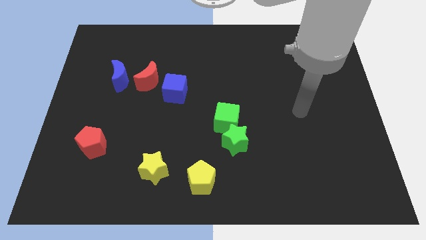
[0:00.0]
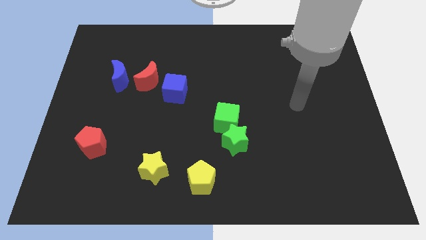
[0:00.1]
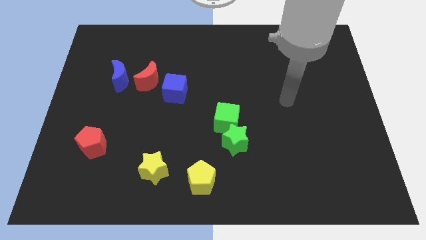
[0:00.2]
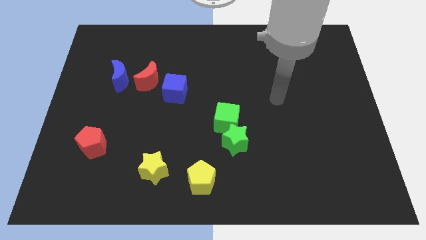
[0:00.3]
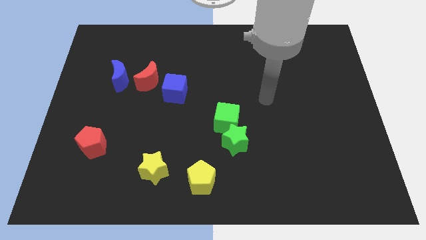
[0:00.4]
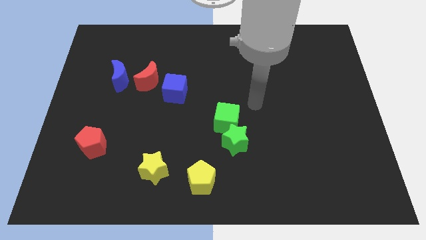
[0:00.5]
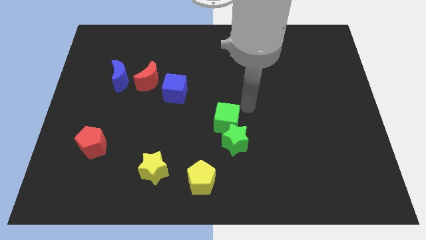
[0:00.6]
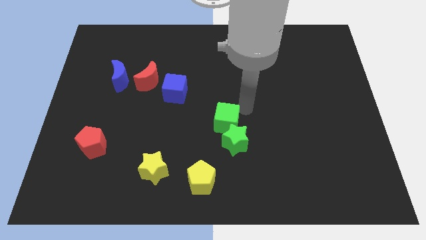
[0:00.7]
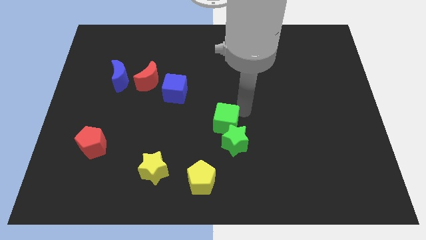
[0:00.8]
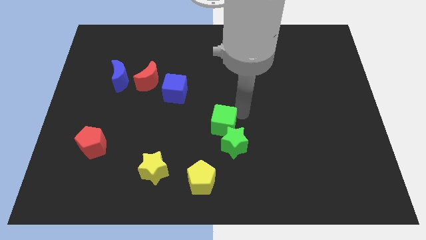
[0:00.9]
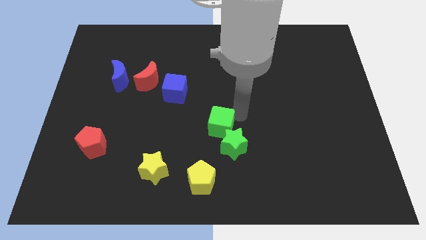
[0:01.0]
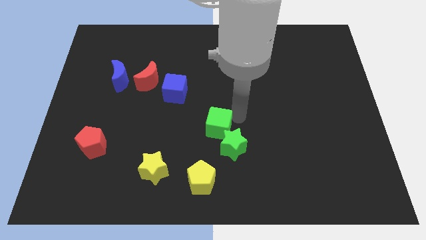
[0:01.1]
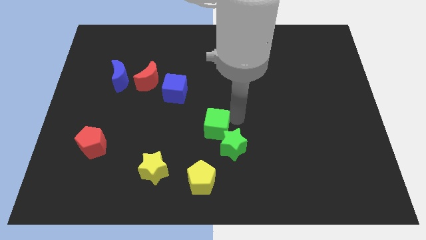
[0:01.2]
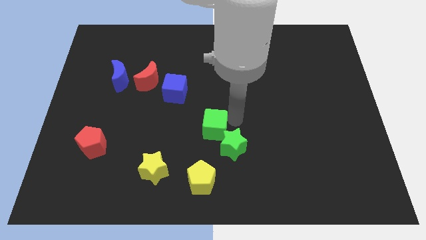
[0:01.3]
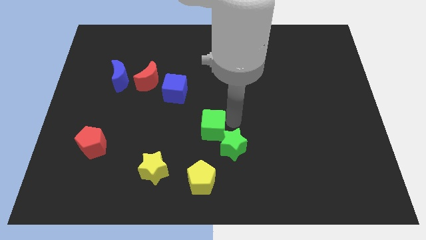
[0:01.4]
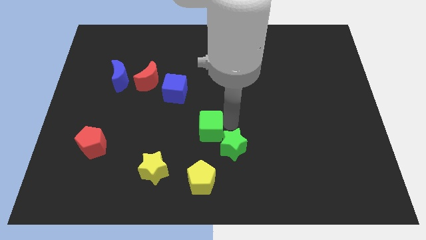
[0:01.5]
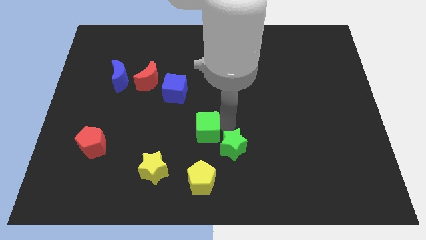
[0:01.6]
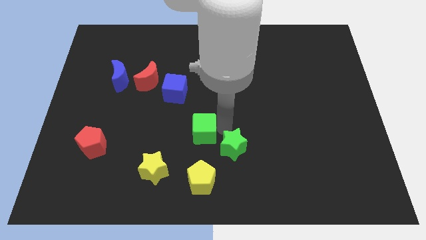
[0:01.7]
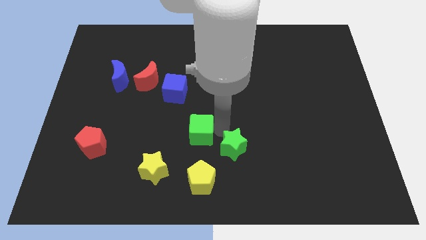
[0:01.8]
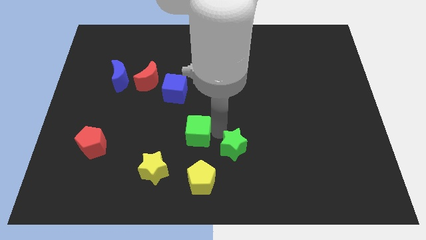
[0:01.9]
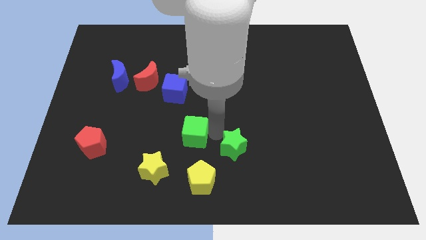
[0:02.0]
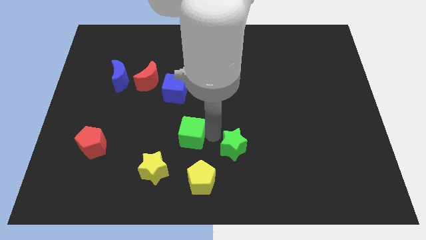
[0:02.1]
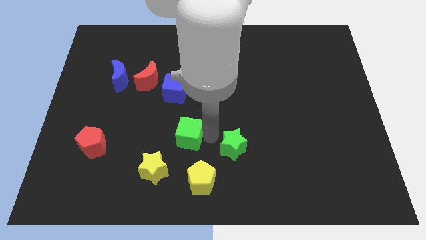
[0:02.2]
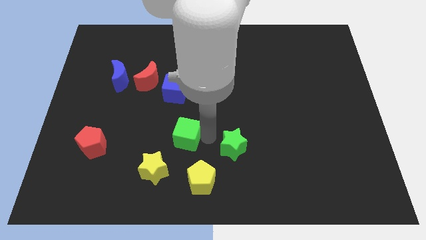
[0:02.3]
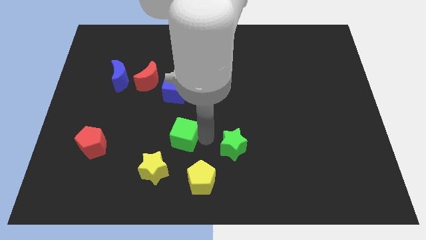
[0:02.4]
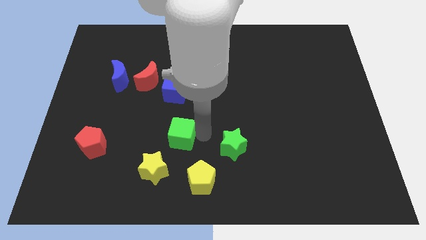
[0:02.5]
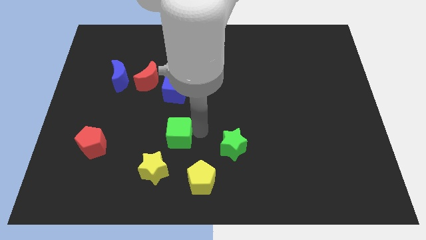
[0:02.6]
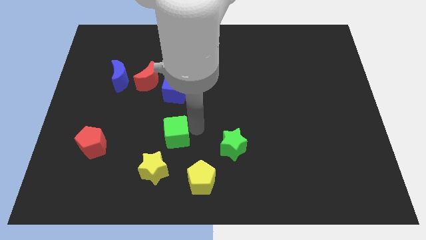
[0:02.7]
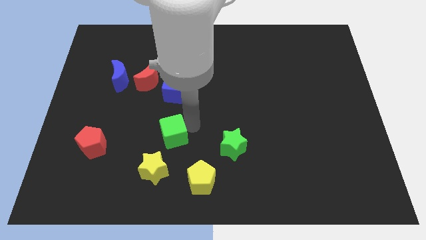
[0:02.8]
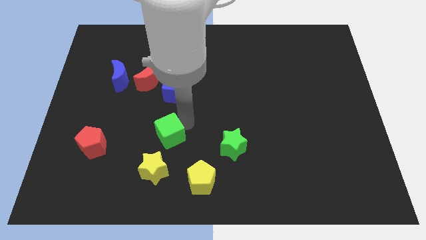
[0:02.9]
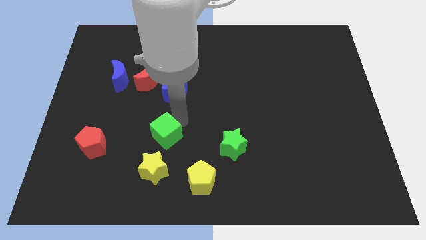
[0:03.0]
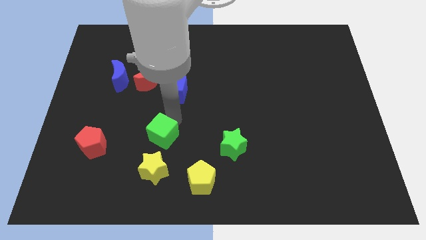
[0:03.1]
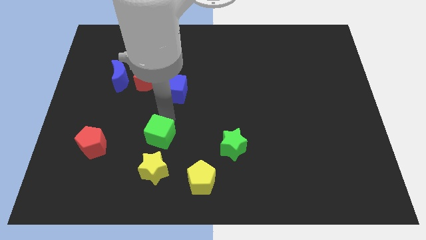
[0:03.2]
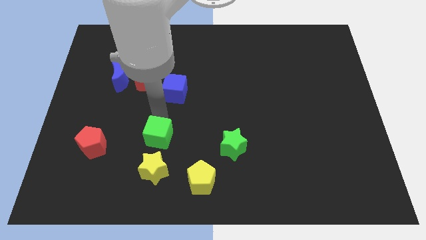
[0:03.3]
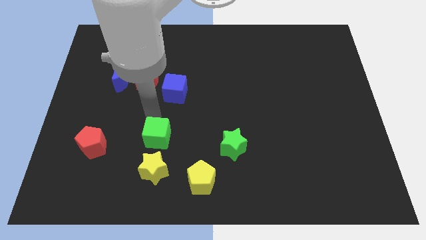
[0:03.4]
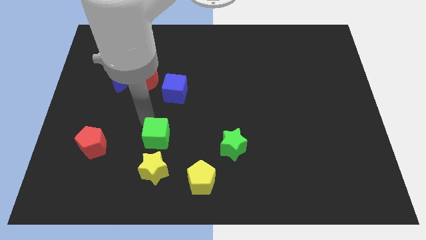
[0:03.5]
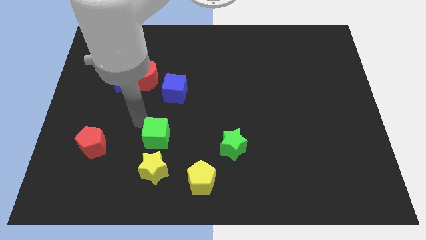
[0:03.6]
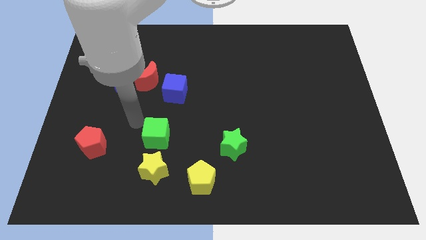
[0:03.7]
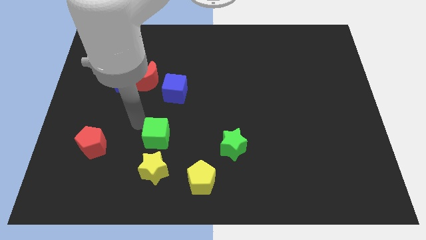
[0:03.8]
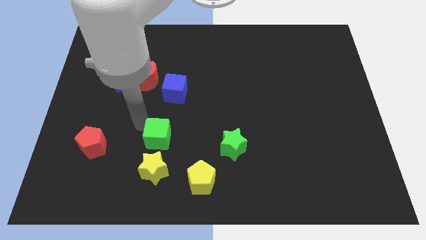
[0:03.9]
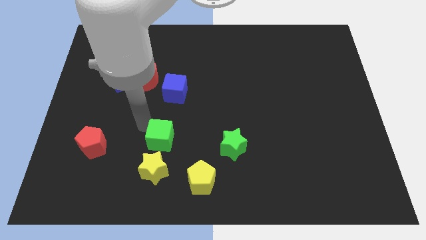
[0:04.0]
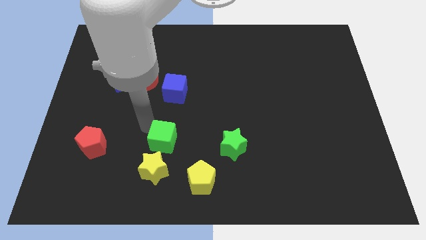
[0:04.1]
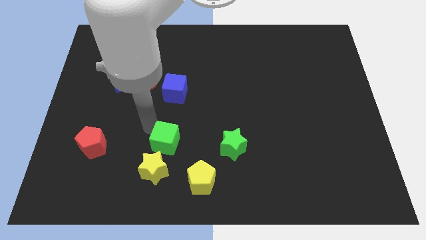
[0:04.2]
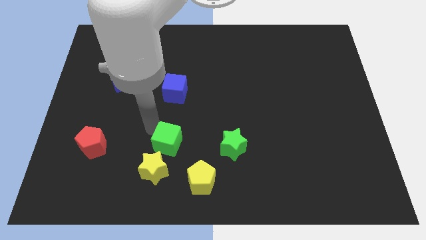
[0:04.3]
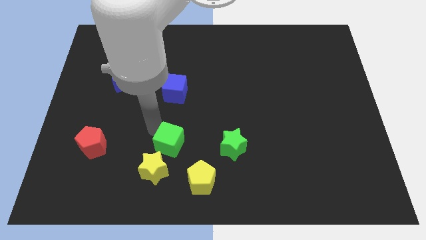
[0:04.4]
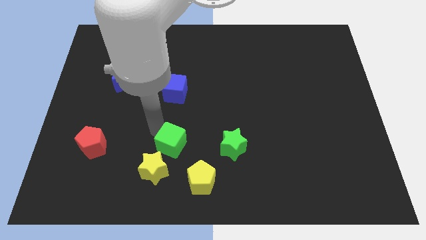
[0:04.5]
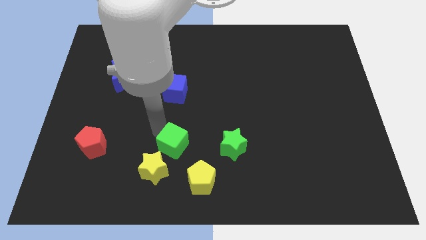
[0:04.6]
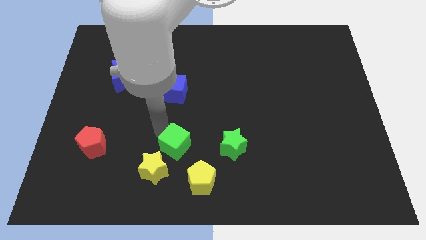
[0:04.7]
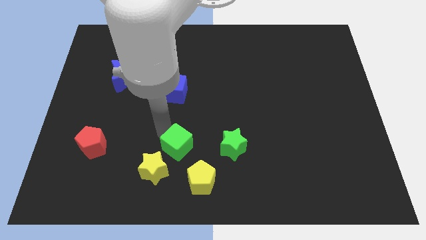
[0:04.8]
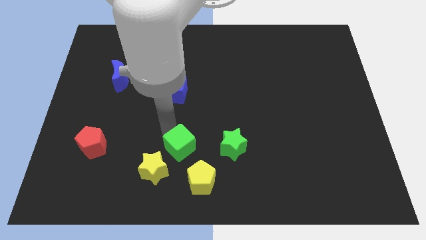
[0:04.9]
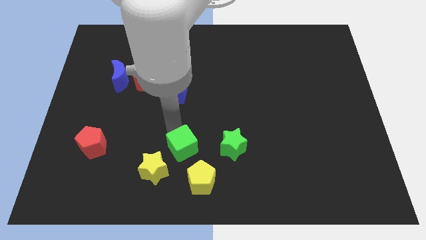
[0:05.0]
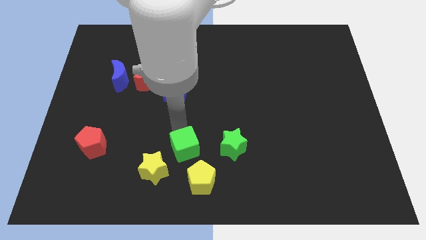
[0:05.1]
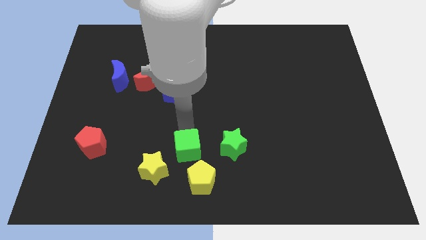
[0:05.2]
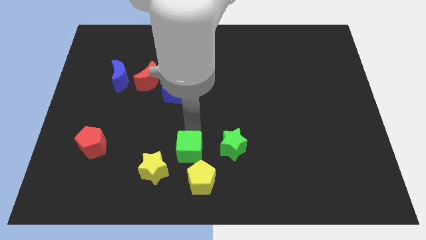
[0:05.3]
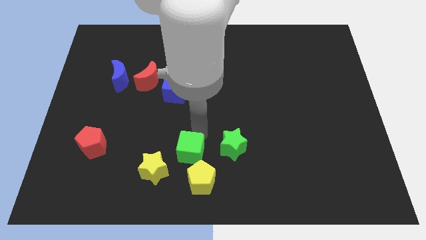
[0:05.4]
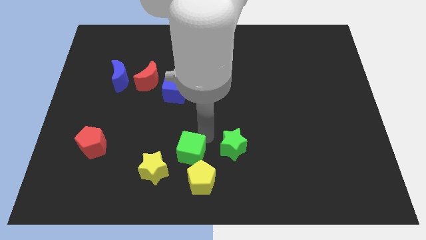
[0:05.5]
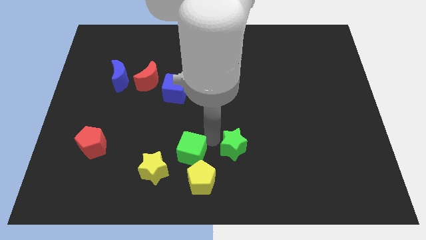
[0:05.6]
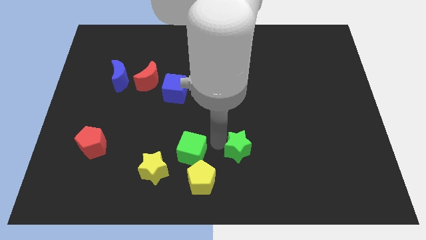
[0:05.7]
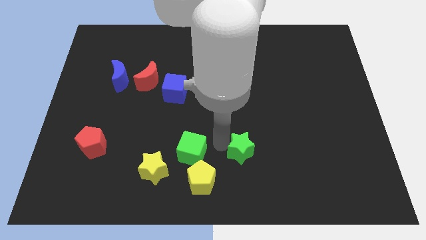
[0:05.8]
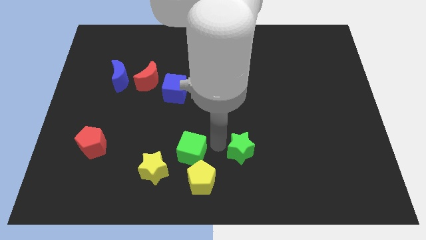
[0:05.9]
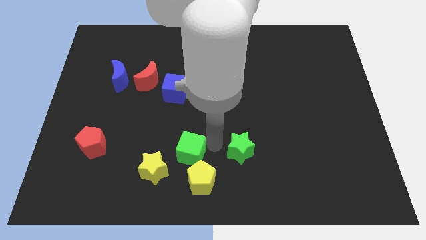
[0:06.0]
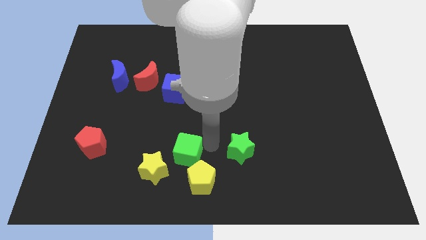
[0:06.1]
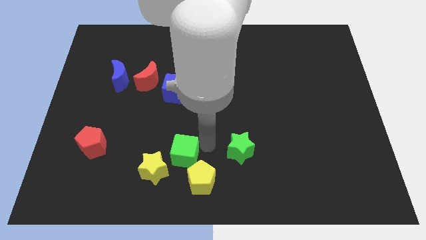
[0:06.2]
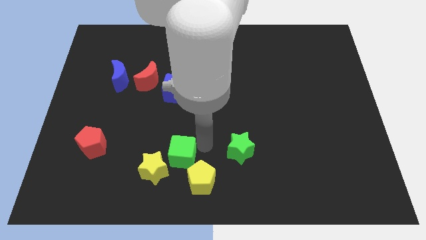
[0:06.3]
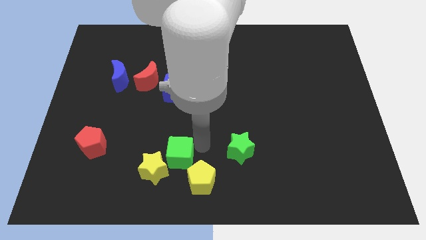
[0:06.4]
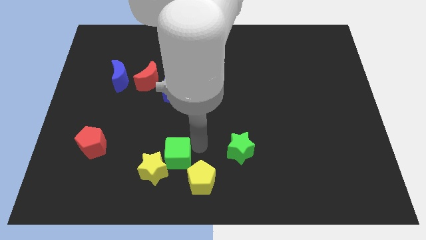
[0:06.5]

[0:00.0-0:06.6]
put the green cube next to the yellow star
